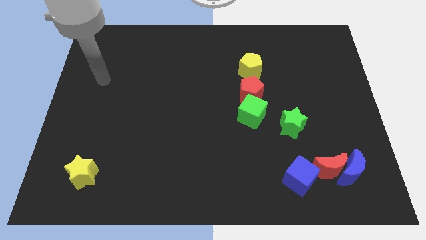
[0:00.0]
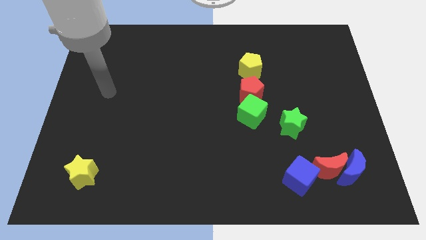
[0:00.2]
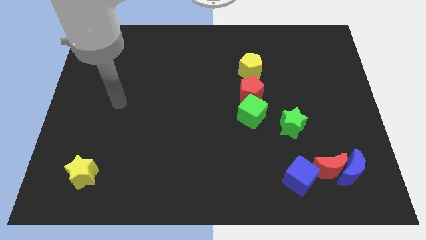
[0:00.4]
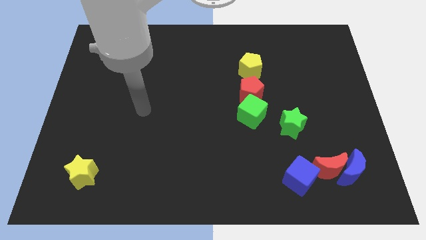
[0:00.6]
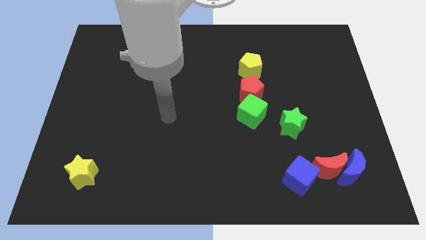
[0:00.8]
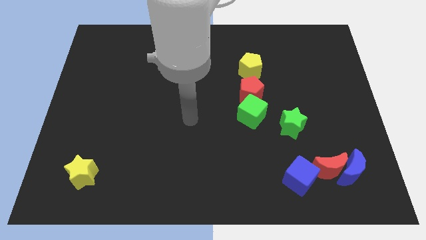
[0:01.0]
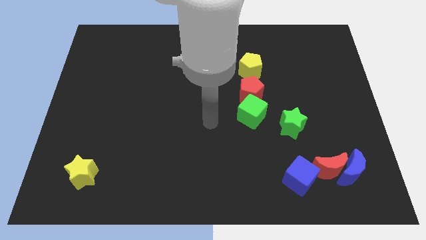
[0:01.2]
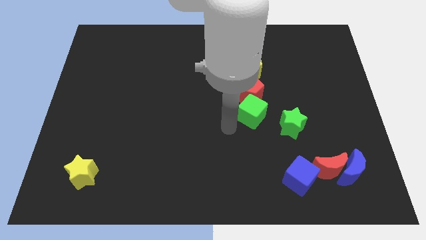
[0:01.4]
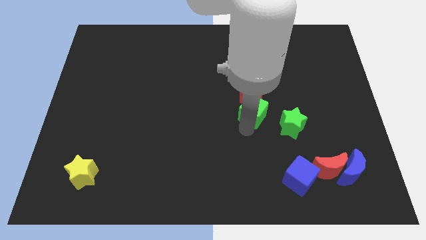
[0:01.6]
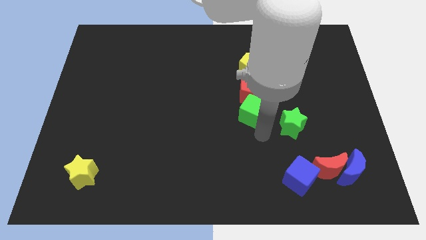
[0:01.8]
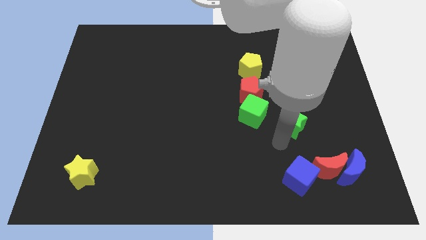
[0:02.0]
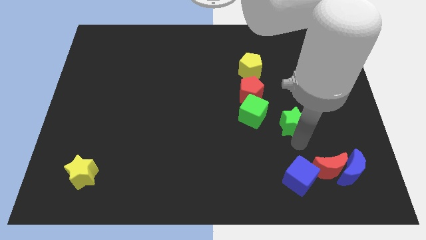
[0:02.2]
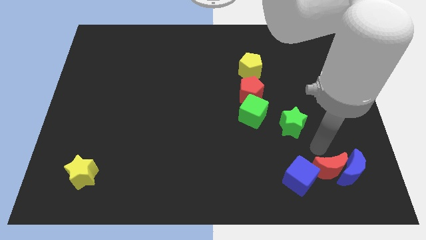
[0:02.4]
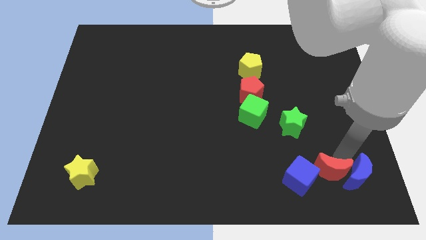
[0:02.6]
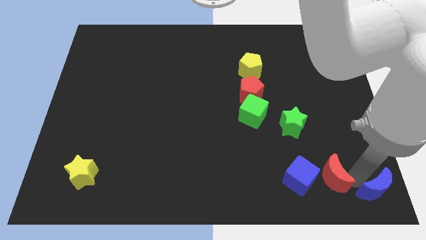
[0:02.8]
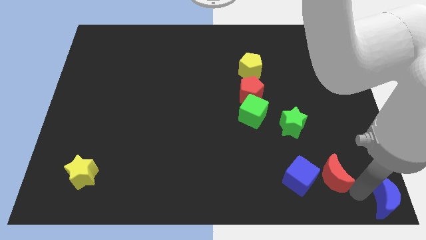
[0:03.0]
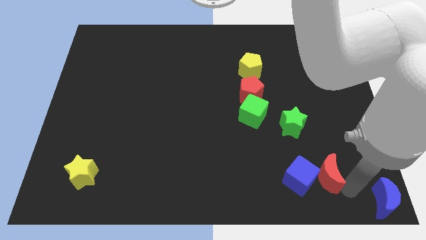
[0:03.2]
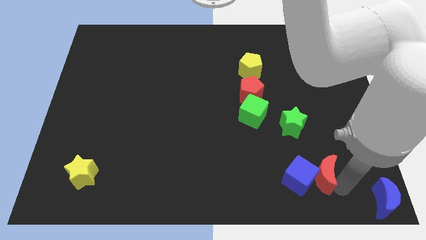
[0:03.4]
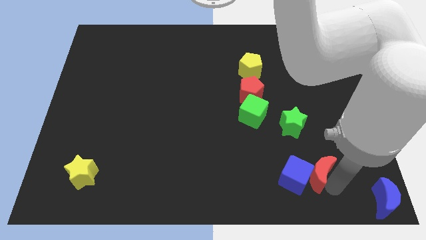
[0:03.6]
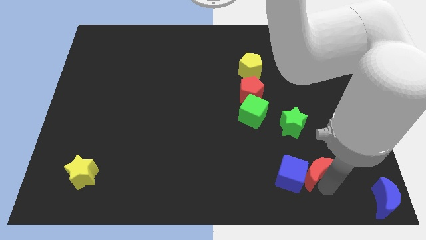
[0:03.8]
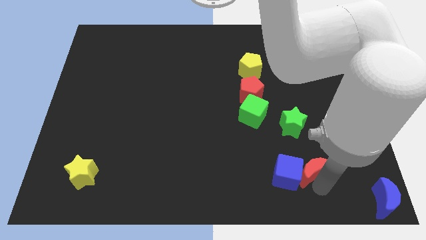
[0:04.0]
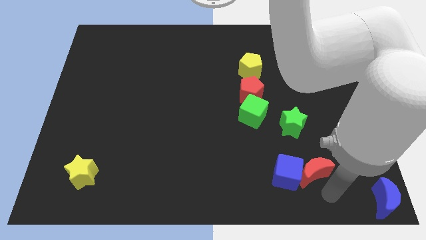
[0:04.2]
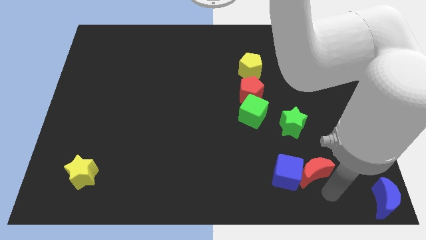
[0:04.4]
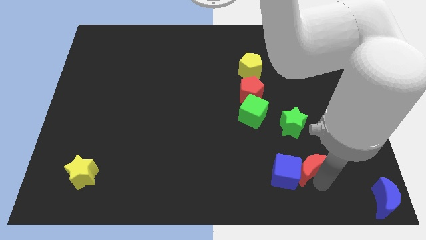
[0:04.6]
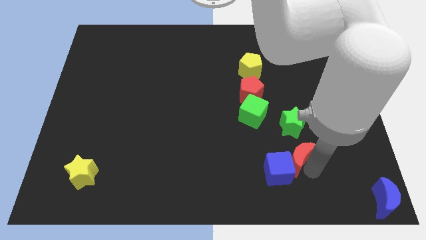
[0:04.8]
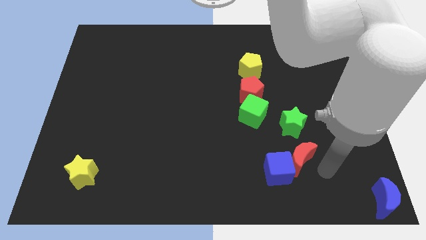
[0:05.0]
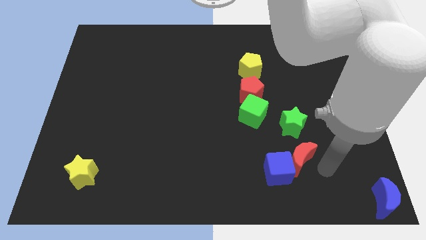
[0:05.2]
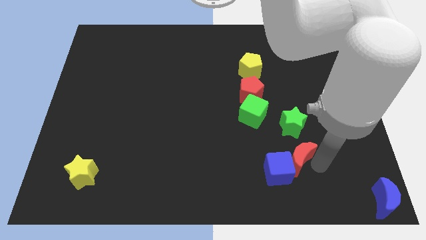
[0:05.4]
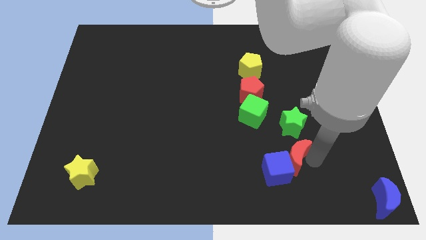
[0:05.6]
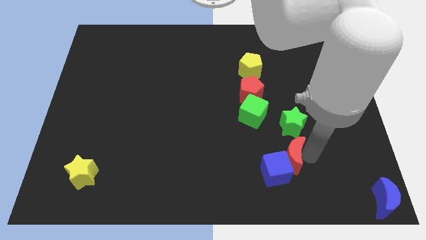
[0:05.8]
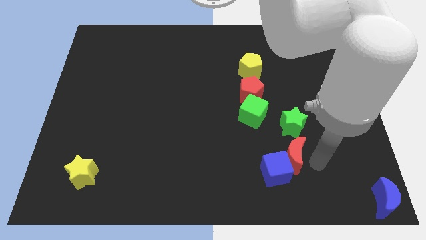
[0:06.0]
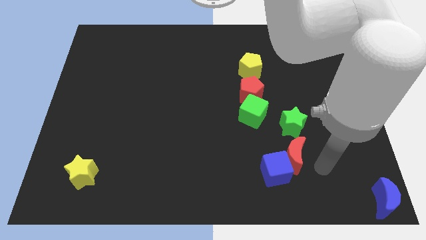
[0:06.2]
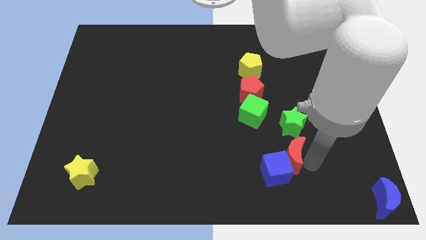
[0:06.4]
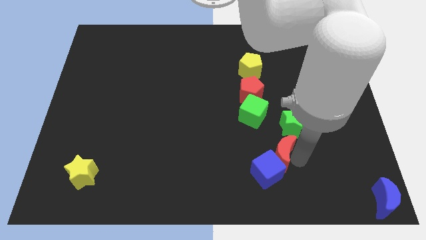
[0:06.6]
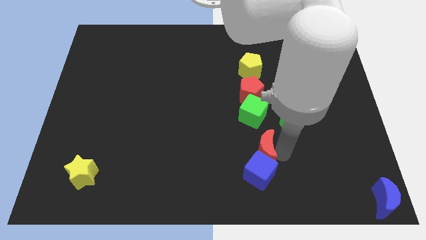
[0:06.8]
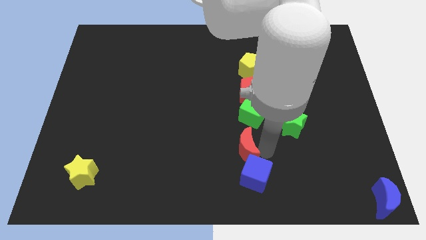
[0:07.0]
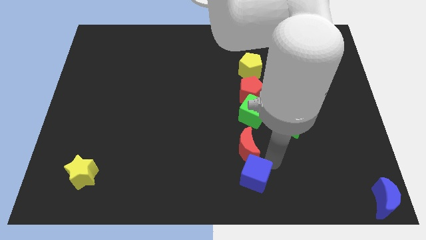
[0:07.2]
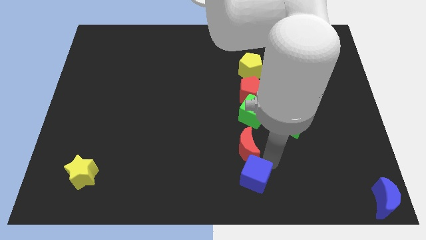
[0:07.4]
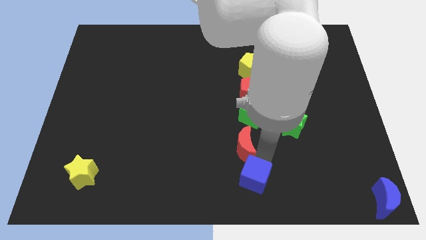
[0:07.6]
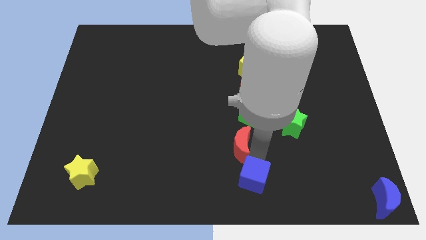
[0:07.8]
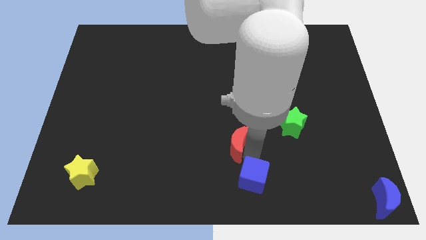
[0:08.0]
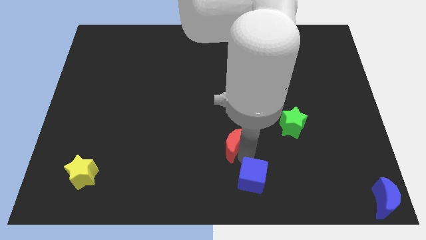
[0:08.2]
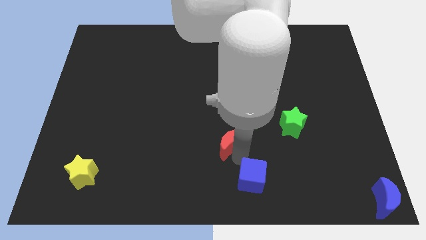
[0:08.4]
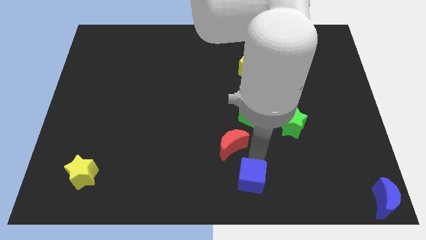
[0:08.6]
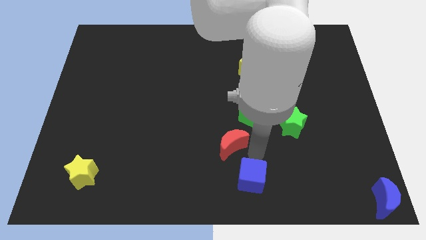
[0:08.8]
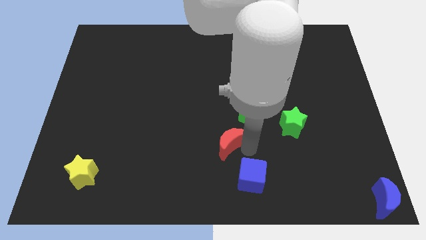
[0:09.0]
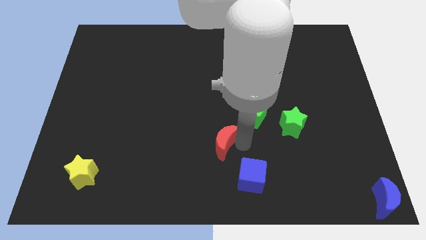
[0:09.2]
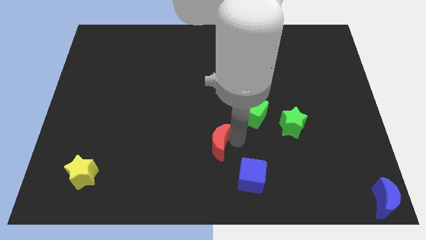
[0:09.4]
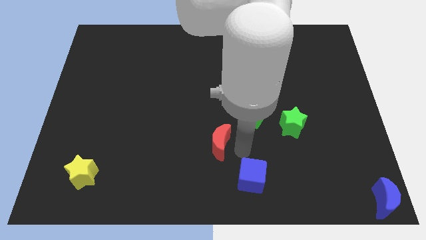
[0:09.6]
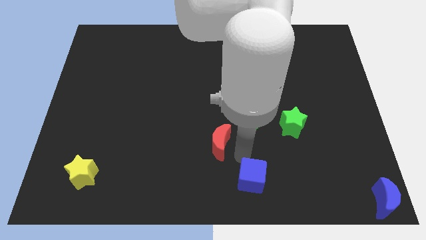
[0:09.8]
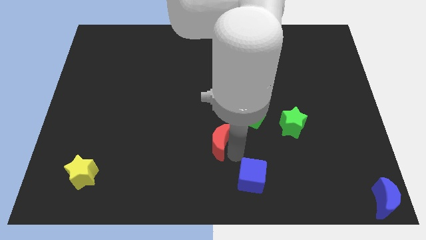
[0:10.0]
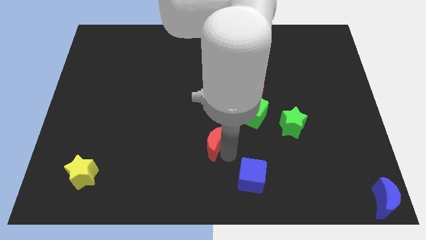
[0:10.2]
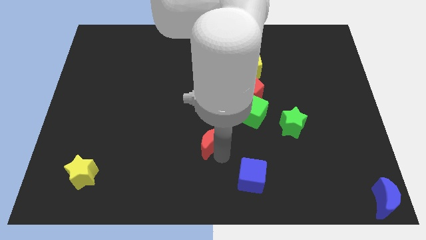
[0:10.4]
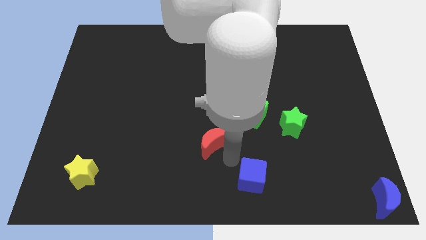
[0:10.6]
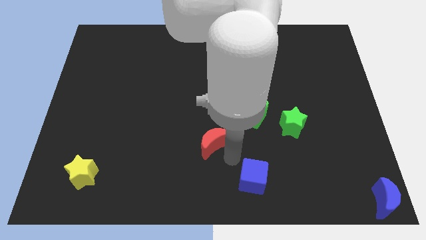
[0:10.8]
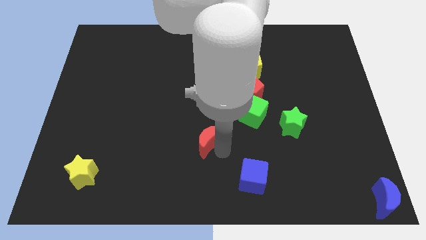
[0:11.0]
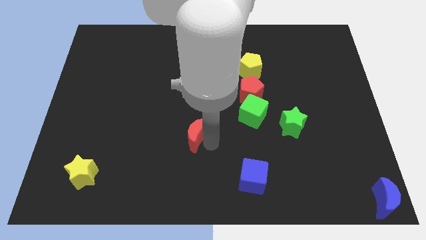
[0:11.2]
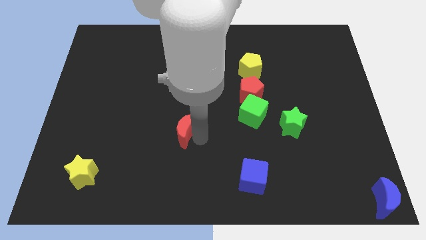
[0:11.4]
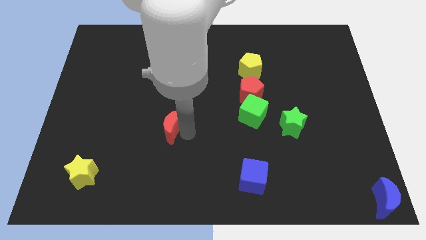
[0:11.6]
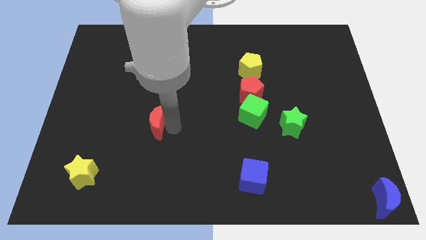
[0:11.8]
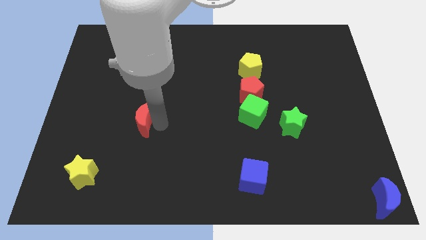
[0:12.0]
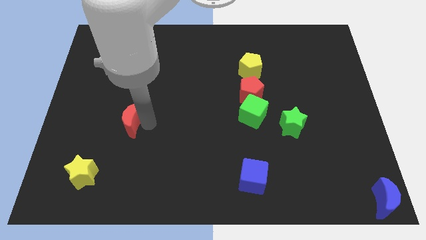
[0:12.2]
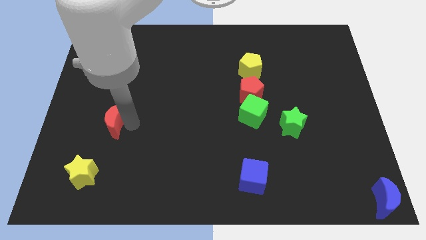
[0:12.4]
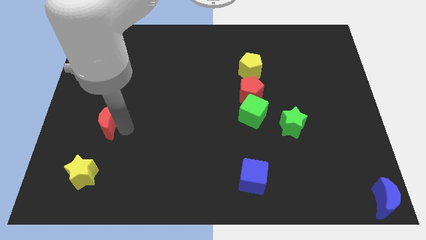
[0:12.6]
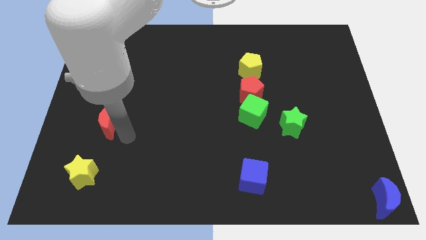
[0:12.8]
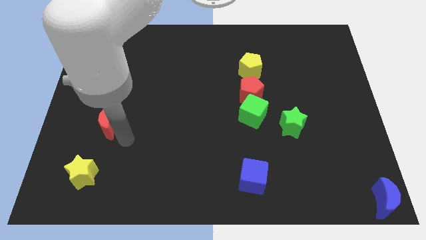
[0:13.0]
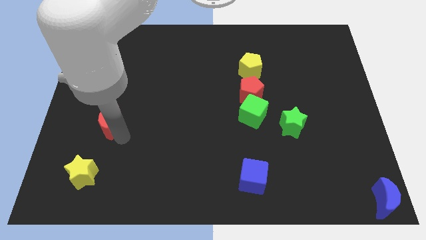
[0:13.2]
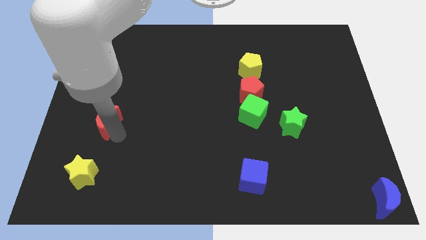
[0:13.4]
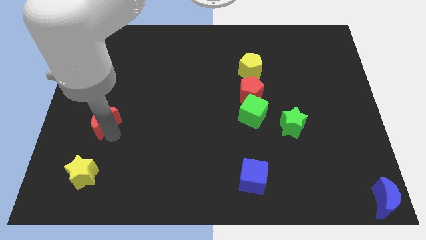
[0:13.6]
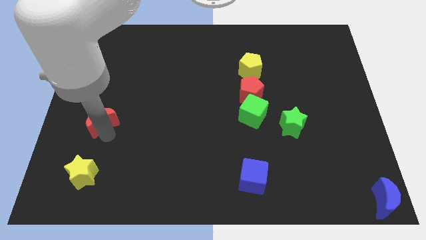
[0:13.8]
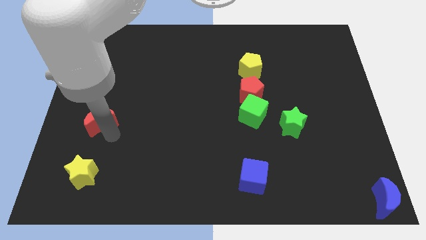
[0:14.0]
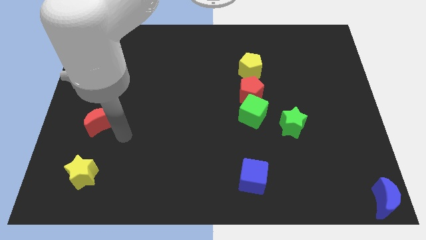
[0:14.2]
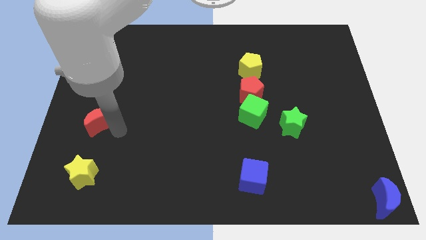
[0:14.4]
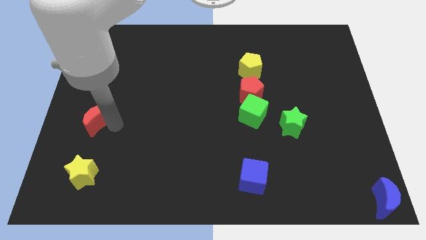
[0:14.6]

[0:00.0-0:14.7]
push the red moon to the left side
